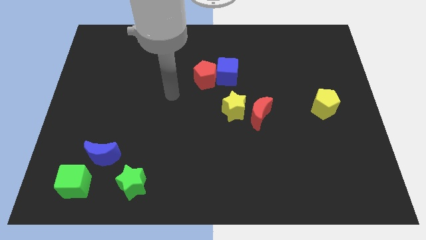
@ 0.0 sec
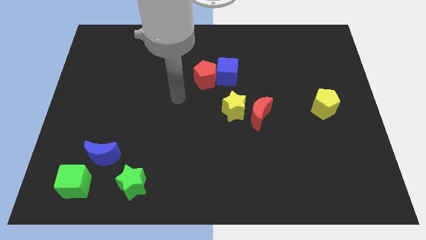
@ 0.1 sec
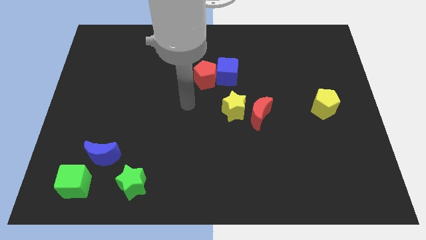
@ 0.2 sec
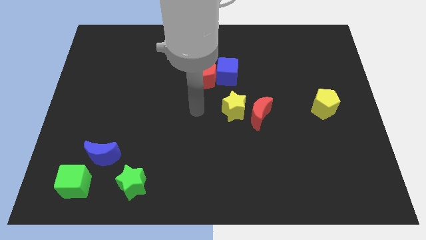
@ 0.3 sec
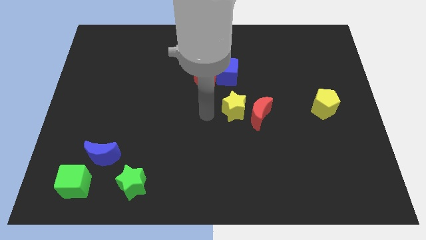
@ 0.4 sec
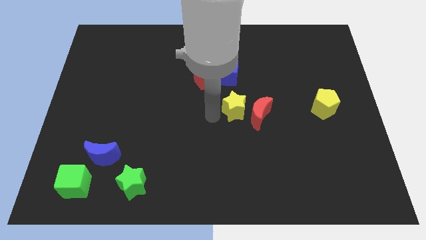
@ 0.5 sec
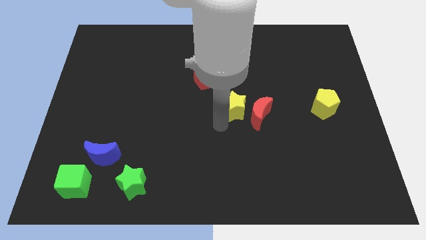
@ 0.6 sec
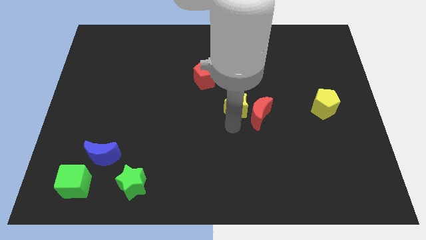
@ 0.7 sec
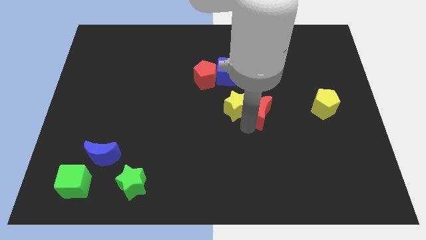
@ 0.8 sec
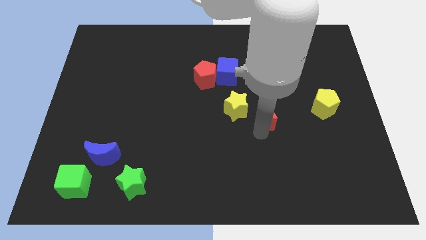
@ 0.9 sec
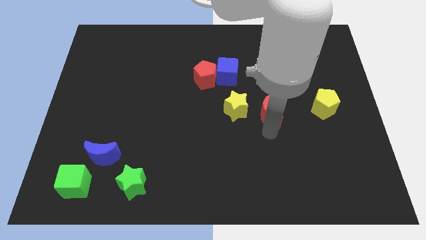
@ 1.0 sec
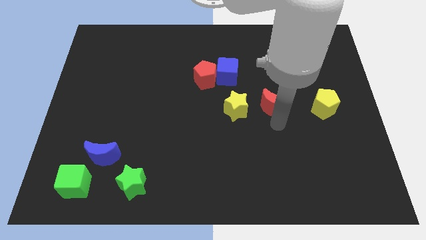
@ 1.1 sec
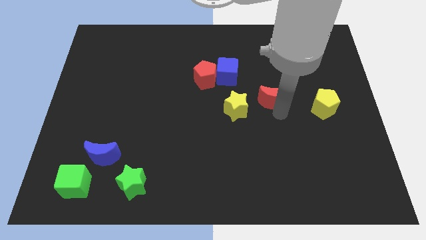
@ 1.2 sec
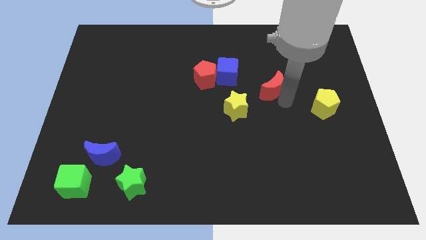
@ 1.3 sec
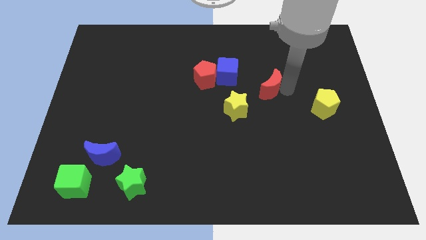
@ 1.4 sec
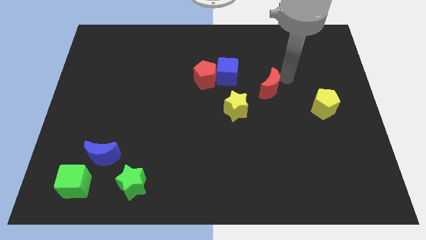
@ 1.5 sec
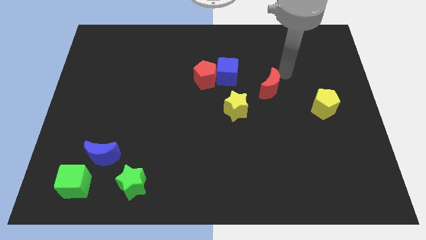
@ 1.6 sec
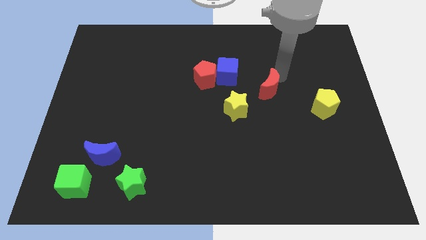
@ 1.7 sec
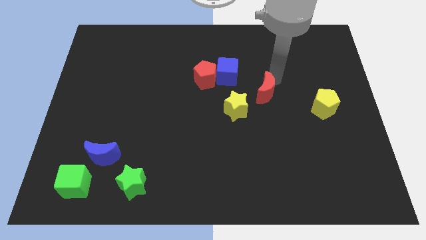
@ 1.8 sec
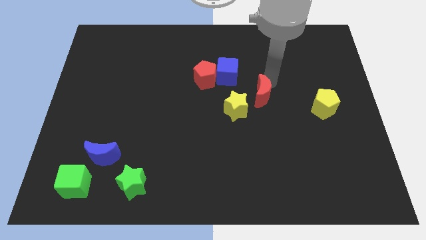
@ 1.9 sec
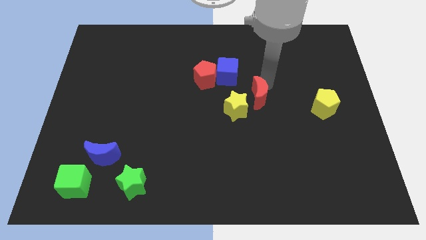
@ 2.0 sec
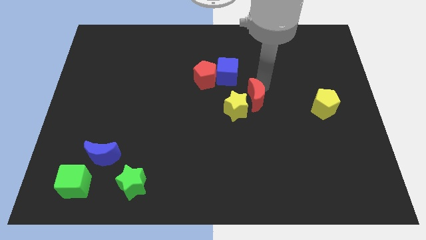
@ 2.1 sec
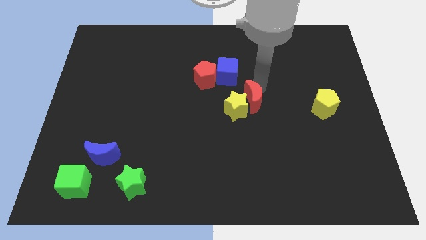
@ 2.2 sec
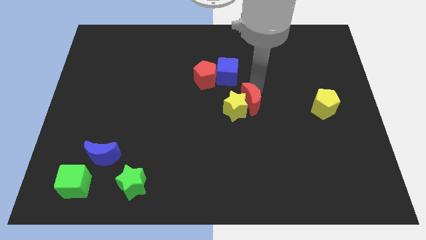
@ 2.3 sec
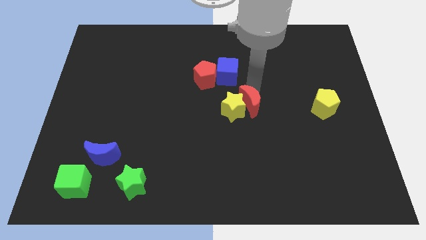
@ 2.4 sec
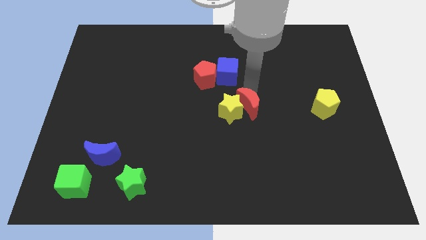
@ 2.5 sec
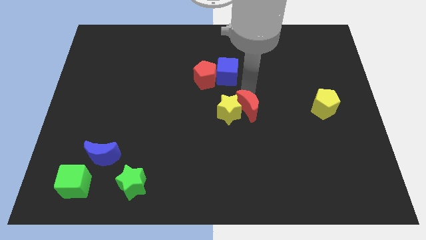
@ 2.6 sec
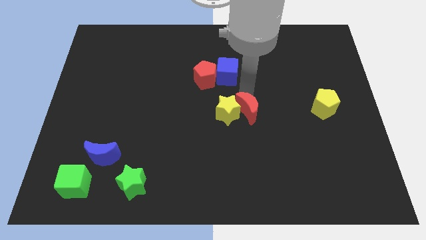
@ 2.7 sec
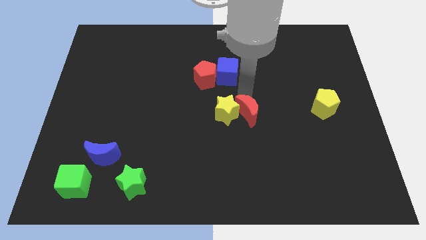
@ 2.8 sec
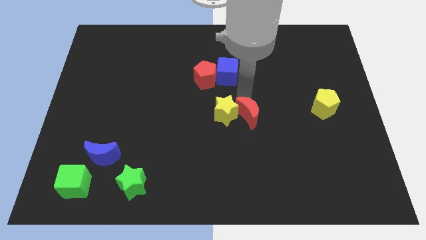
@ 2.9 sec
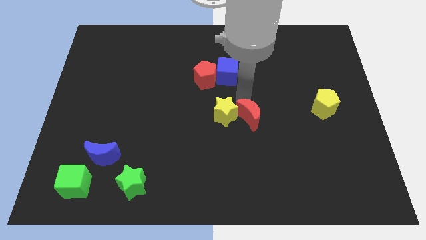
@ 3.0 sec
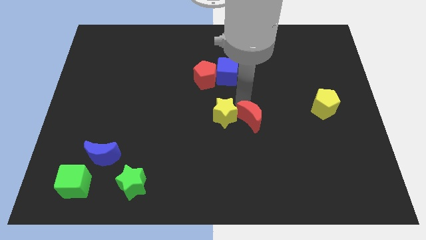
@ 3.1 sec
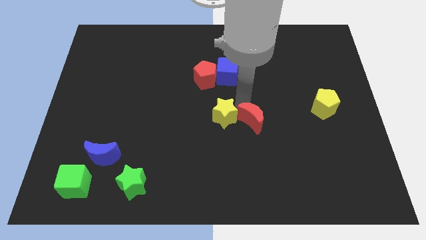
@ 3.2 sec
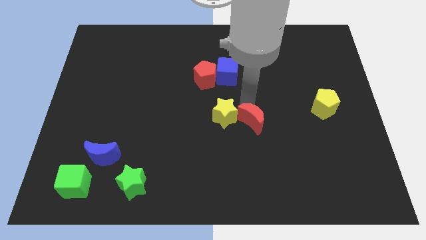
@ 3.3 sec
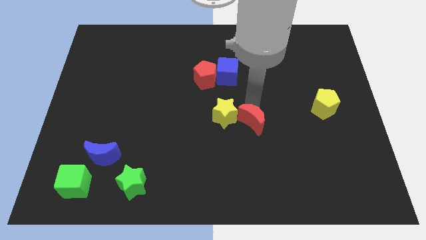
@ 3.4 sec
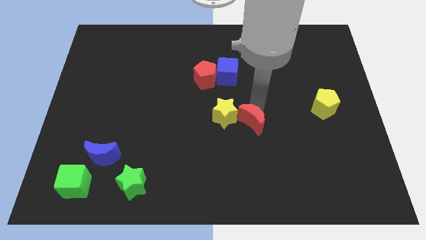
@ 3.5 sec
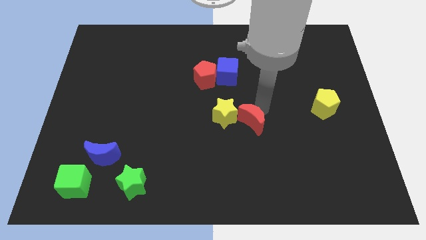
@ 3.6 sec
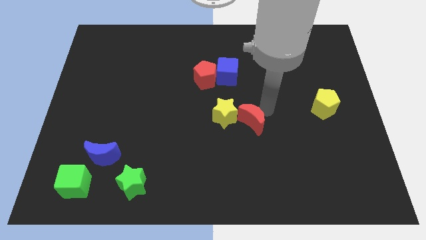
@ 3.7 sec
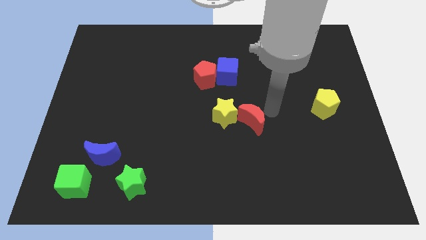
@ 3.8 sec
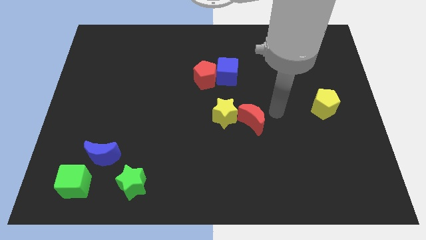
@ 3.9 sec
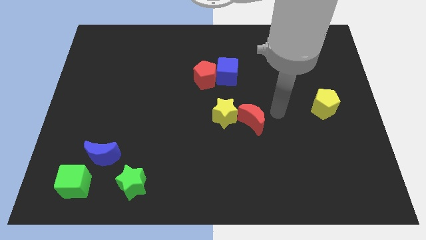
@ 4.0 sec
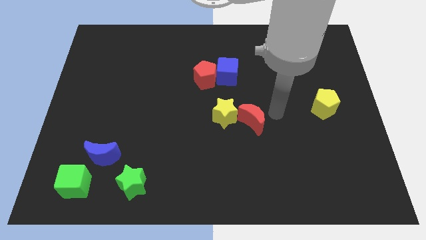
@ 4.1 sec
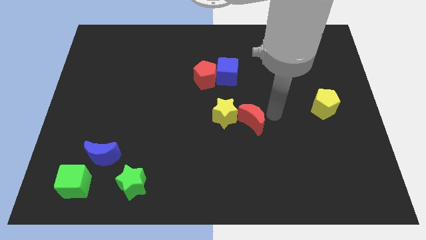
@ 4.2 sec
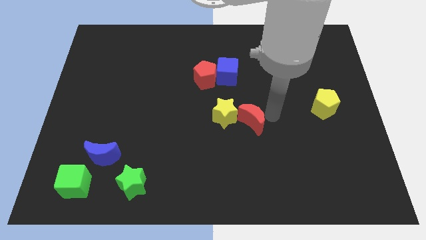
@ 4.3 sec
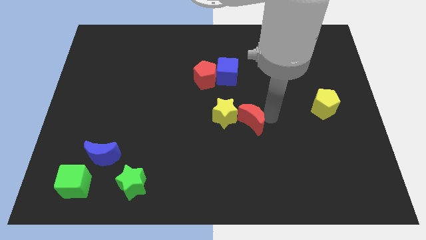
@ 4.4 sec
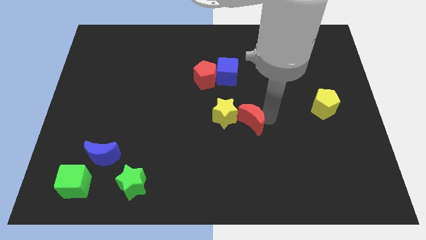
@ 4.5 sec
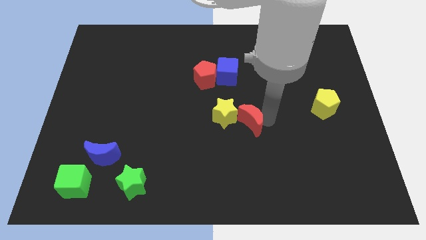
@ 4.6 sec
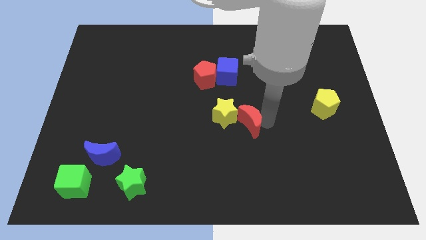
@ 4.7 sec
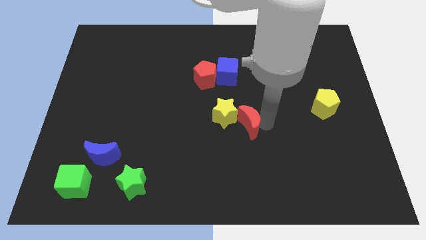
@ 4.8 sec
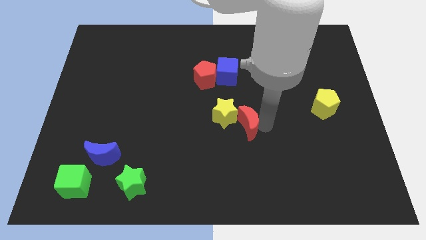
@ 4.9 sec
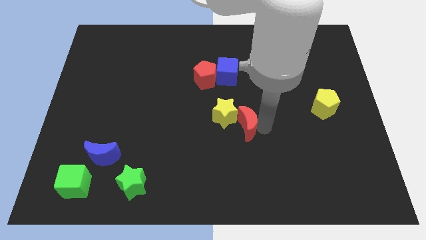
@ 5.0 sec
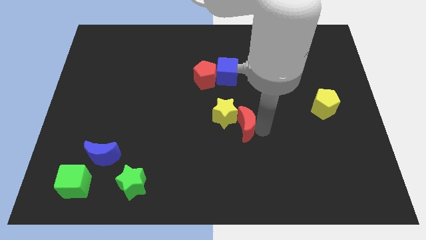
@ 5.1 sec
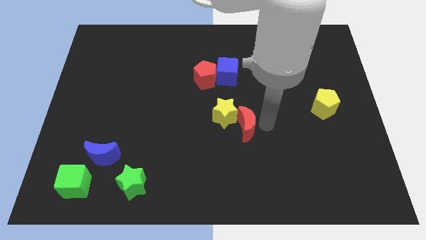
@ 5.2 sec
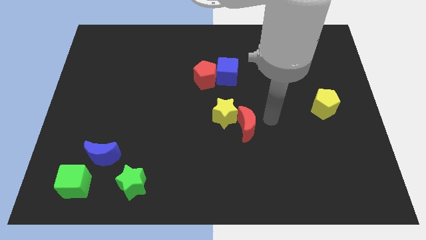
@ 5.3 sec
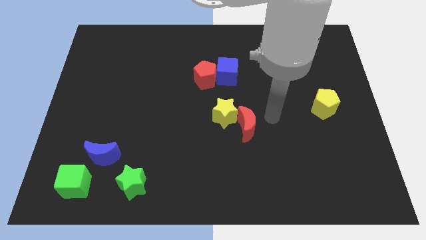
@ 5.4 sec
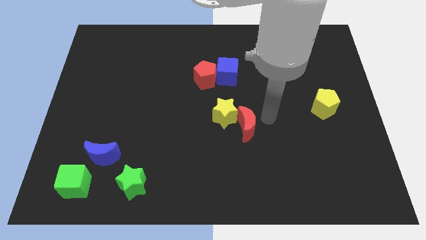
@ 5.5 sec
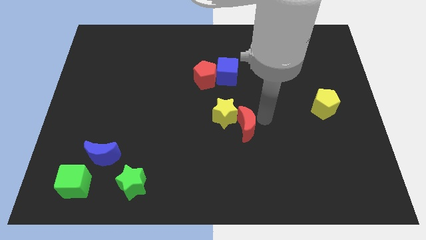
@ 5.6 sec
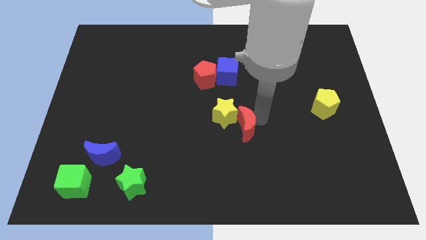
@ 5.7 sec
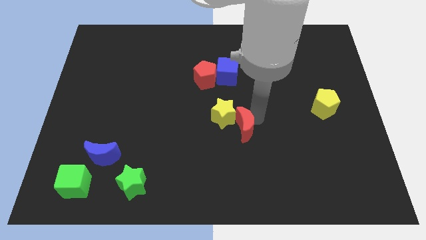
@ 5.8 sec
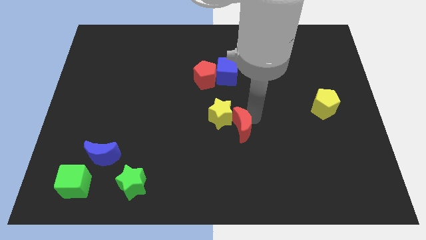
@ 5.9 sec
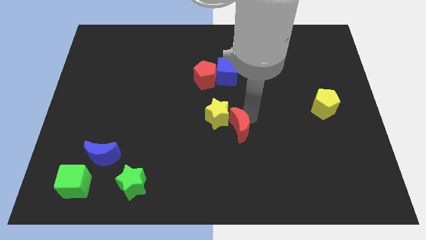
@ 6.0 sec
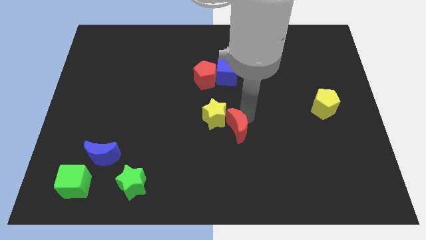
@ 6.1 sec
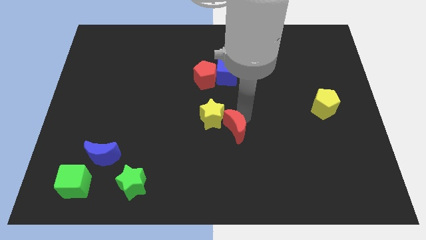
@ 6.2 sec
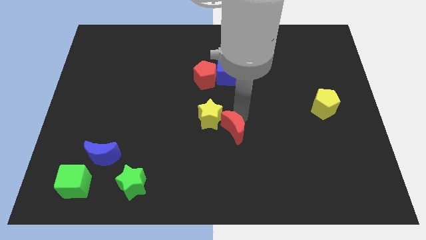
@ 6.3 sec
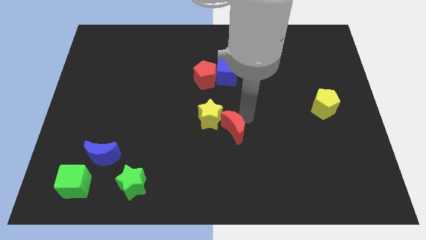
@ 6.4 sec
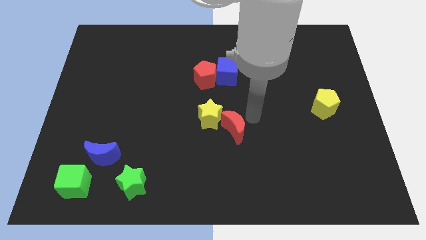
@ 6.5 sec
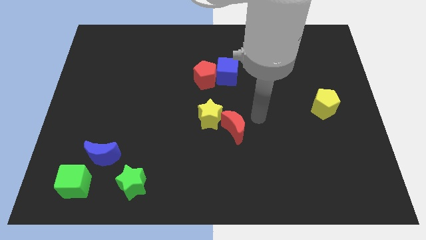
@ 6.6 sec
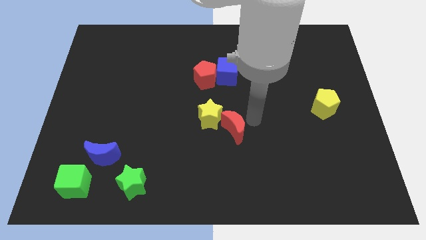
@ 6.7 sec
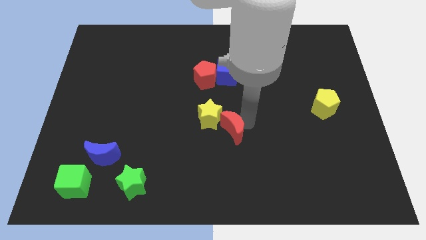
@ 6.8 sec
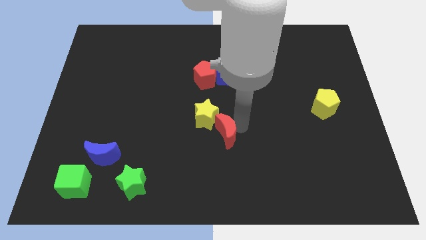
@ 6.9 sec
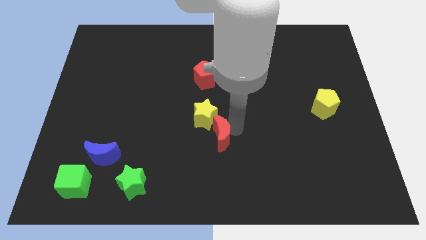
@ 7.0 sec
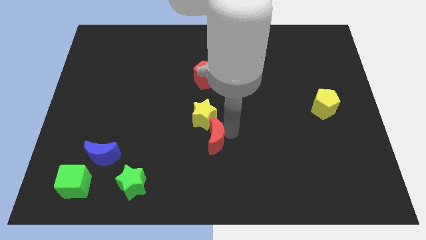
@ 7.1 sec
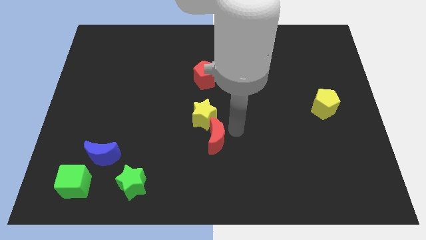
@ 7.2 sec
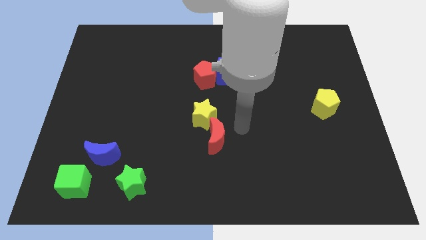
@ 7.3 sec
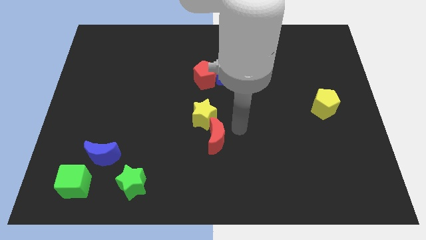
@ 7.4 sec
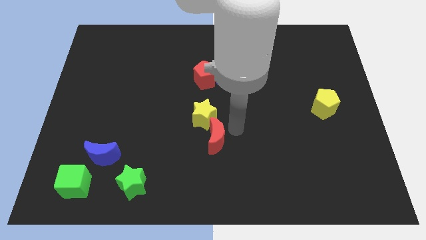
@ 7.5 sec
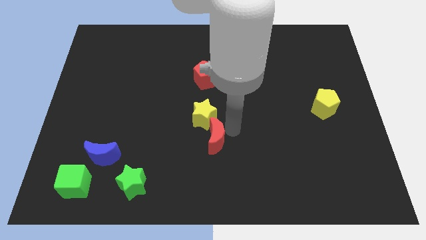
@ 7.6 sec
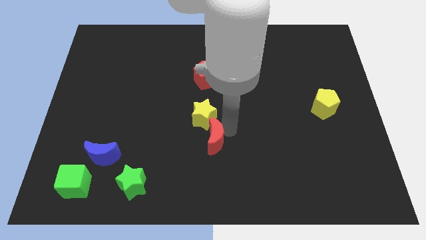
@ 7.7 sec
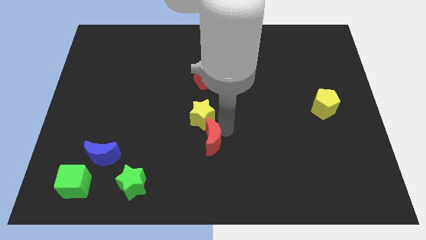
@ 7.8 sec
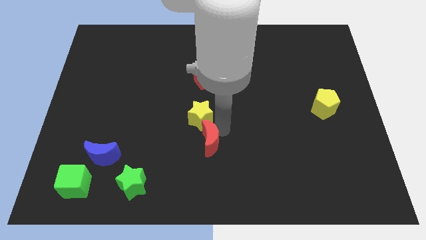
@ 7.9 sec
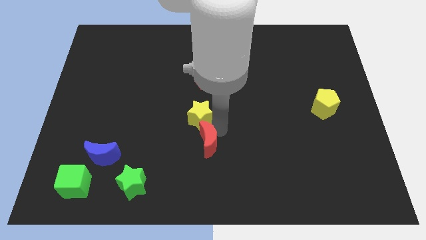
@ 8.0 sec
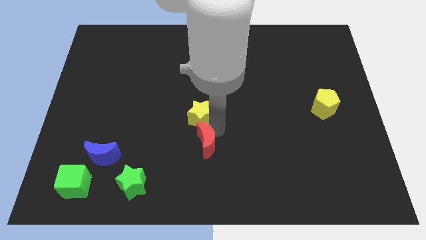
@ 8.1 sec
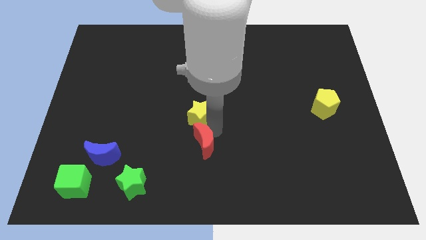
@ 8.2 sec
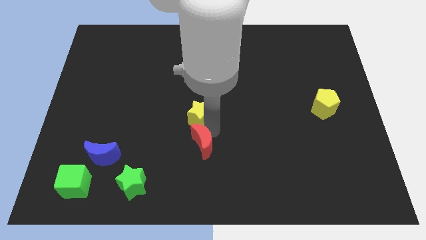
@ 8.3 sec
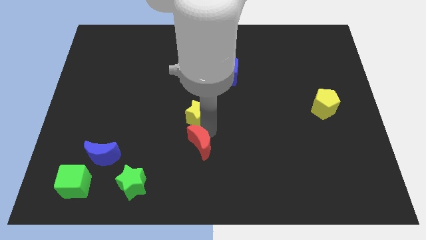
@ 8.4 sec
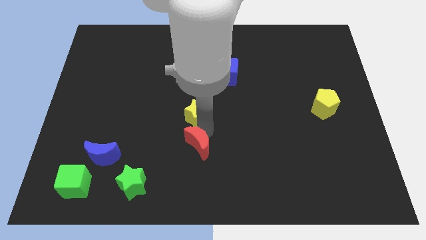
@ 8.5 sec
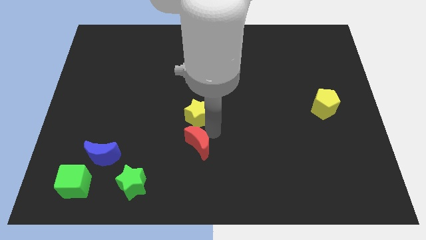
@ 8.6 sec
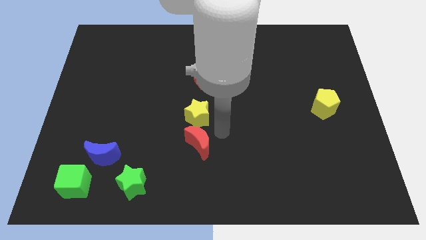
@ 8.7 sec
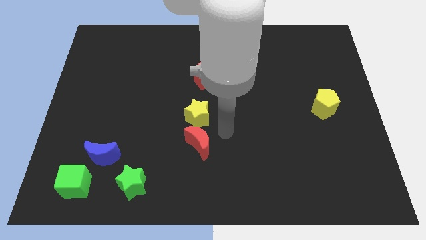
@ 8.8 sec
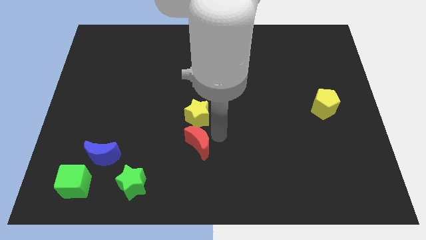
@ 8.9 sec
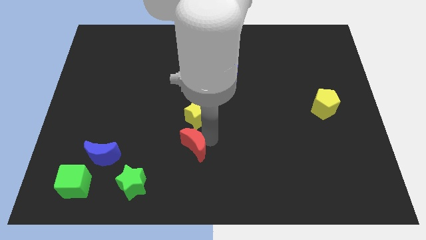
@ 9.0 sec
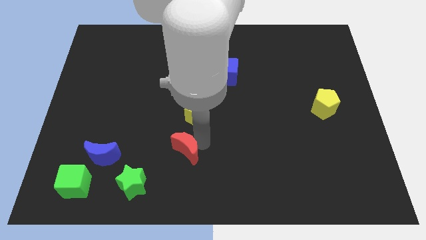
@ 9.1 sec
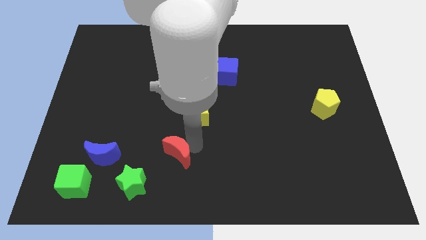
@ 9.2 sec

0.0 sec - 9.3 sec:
slide the red moon to the top right side of the green star
